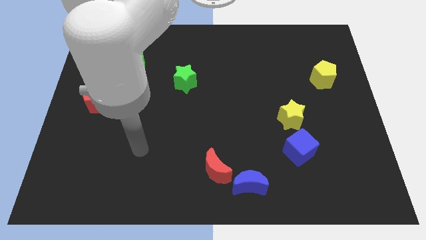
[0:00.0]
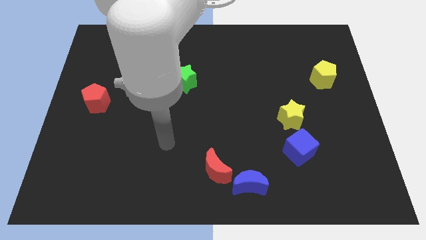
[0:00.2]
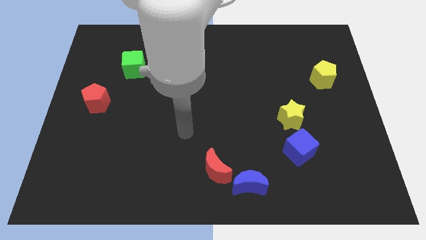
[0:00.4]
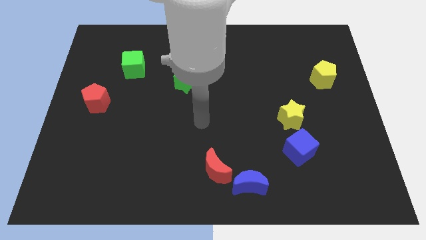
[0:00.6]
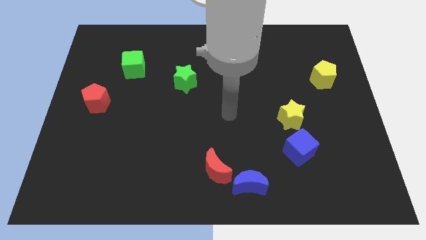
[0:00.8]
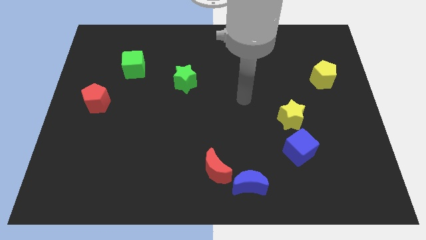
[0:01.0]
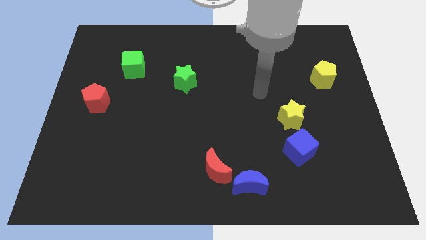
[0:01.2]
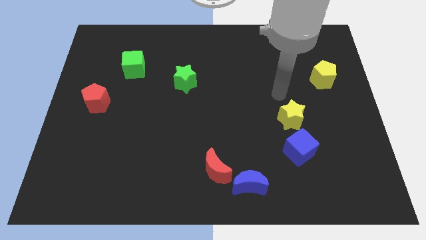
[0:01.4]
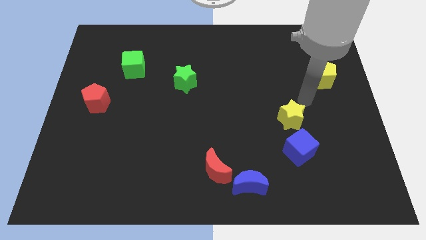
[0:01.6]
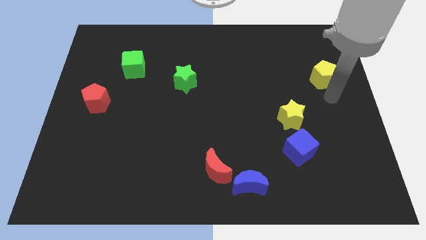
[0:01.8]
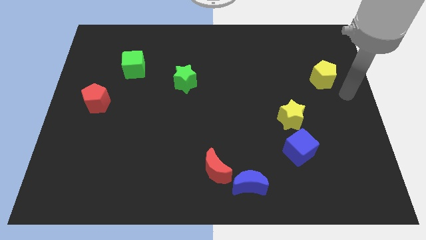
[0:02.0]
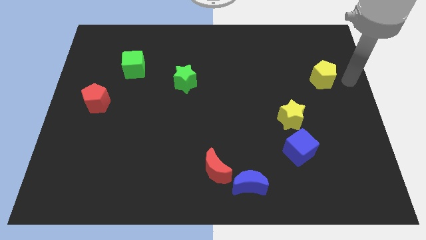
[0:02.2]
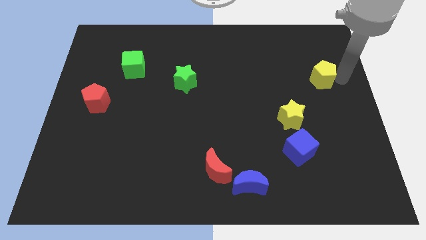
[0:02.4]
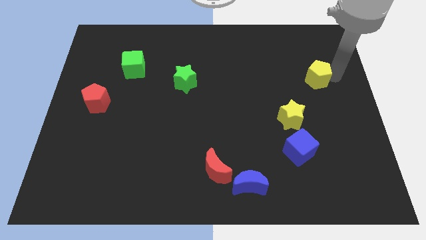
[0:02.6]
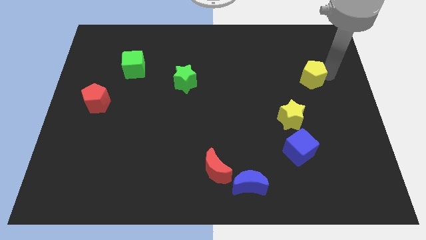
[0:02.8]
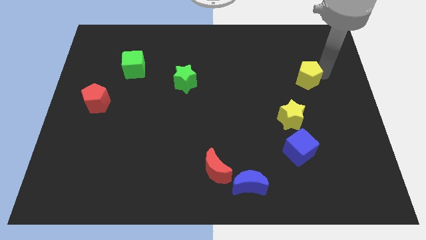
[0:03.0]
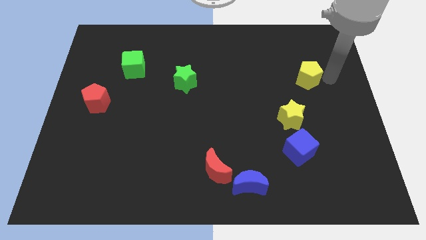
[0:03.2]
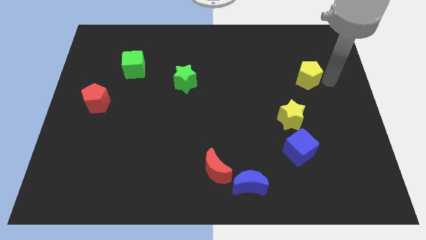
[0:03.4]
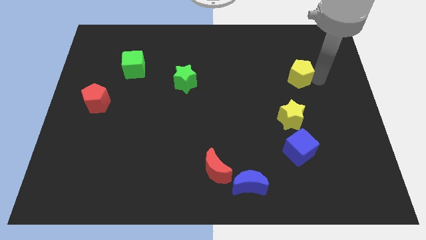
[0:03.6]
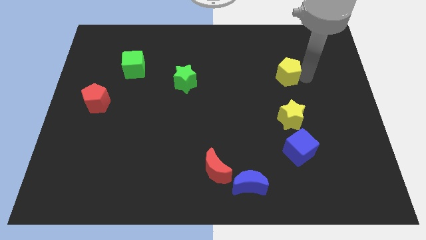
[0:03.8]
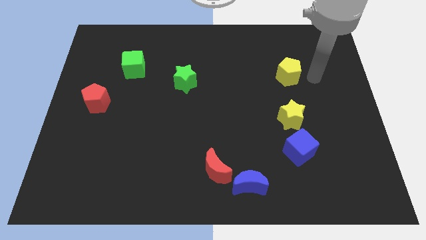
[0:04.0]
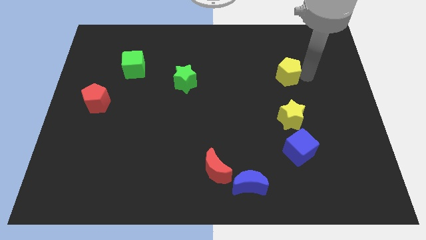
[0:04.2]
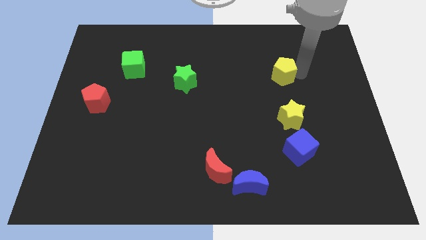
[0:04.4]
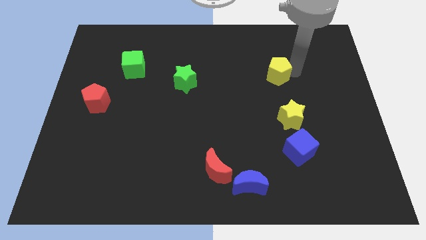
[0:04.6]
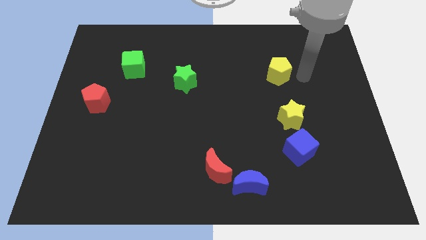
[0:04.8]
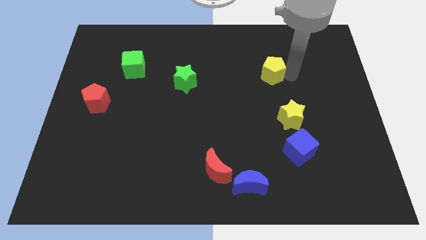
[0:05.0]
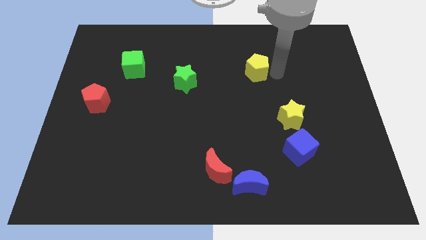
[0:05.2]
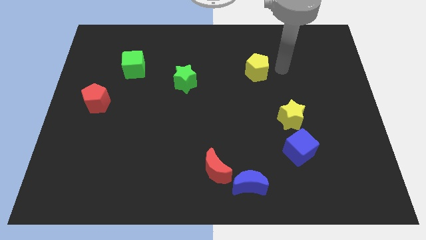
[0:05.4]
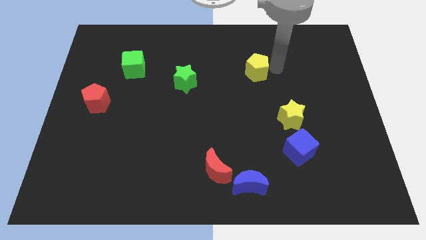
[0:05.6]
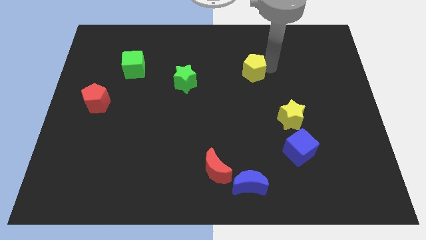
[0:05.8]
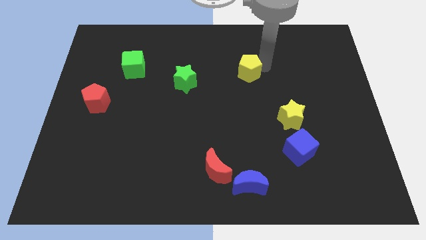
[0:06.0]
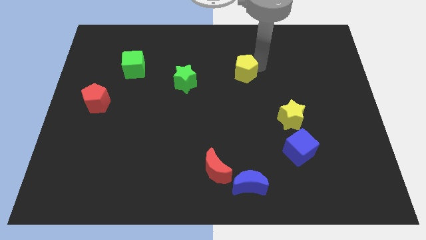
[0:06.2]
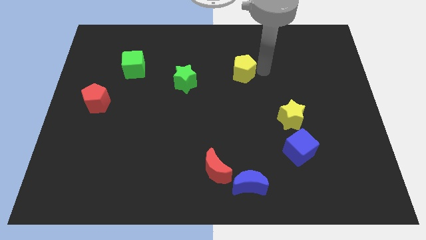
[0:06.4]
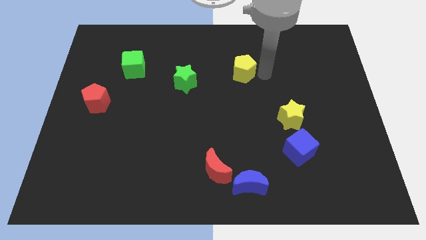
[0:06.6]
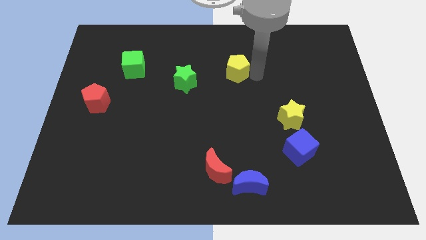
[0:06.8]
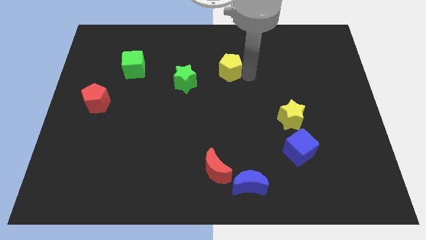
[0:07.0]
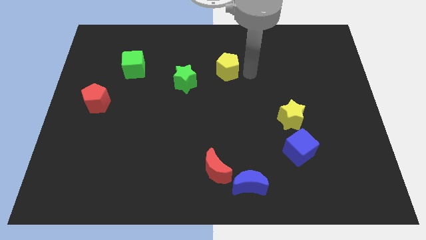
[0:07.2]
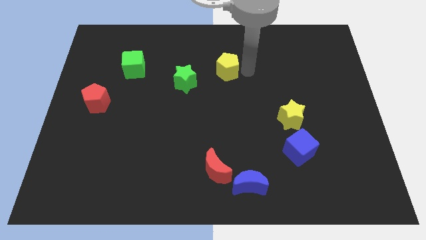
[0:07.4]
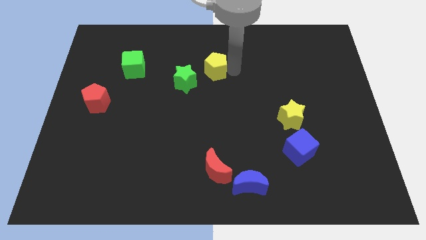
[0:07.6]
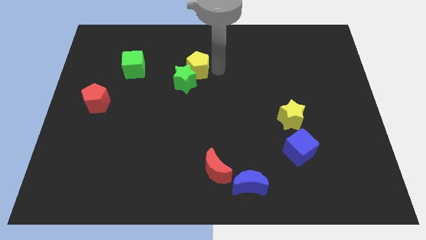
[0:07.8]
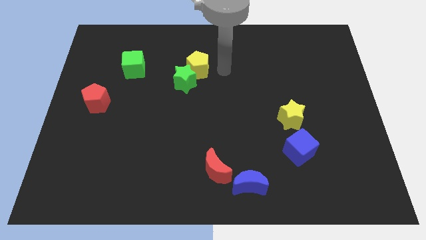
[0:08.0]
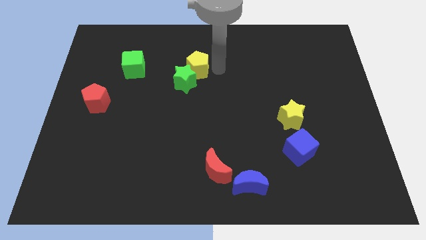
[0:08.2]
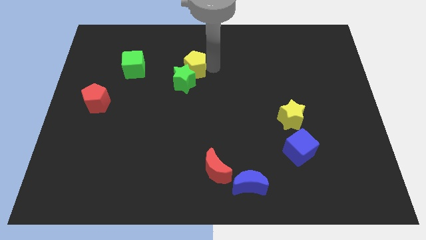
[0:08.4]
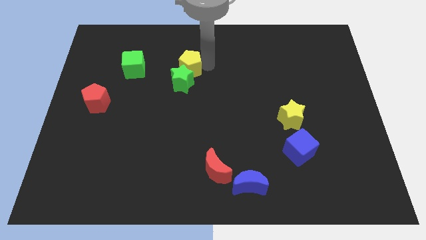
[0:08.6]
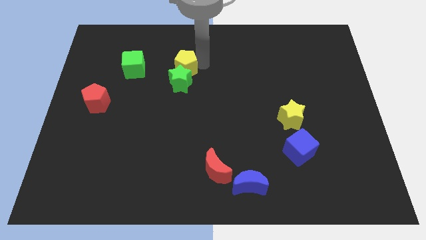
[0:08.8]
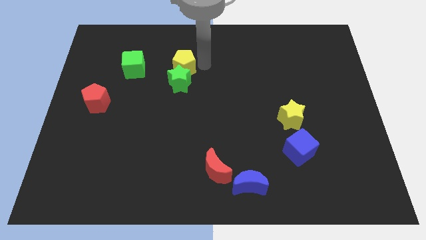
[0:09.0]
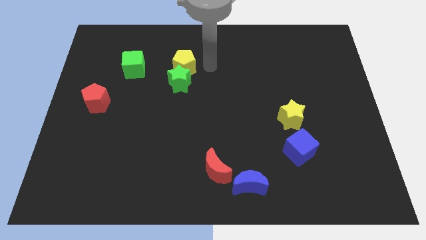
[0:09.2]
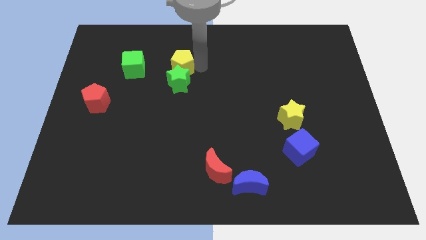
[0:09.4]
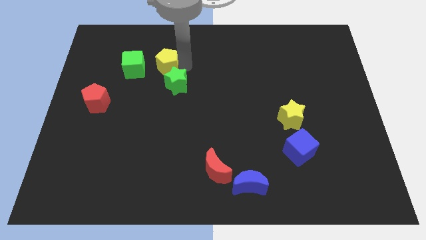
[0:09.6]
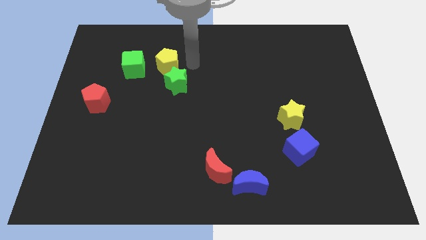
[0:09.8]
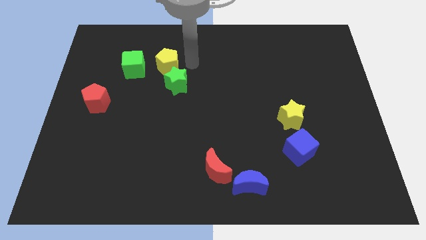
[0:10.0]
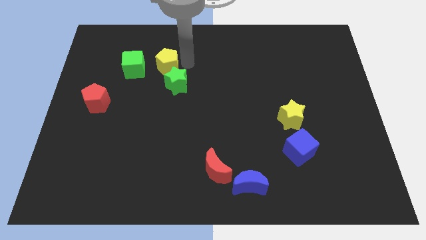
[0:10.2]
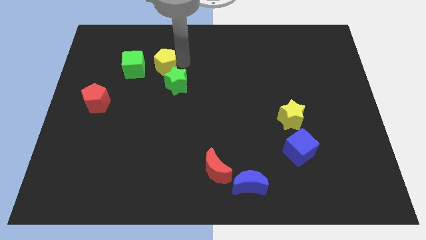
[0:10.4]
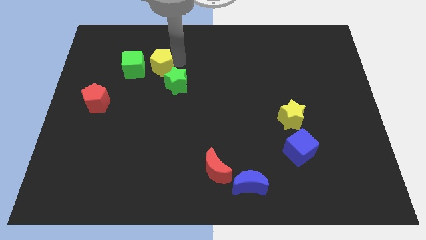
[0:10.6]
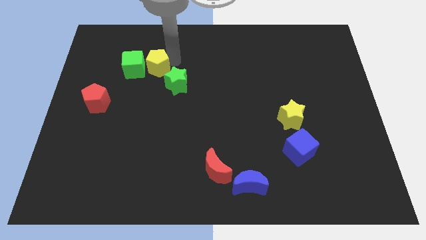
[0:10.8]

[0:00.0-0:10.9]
move the yellow pentagon next to the green cube

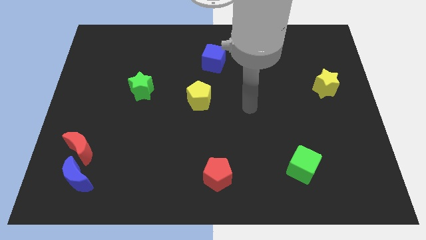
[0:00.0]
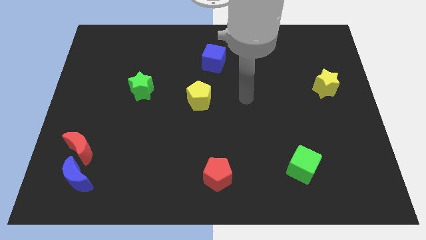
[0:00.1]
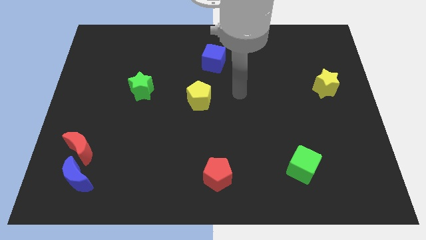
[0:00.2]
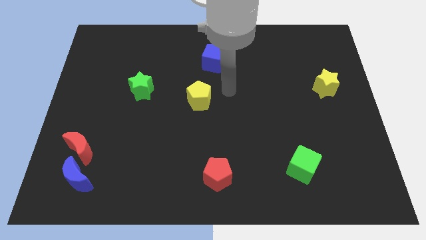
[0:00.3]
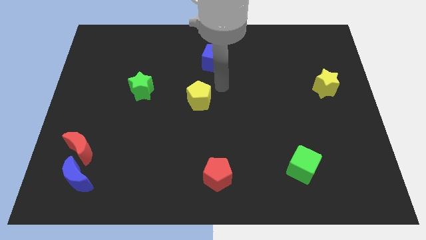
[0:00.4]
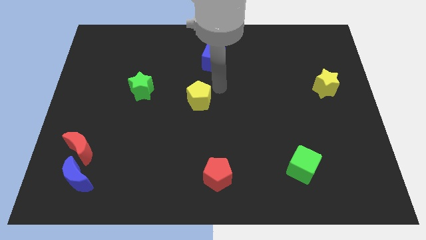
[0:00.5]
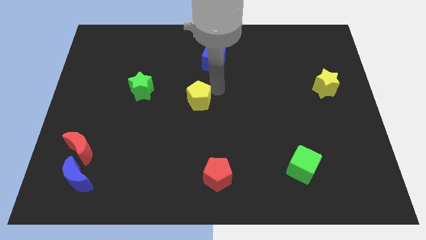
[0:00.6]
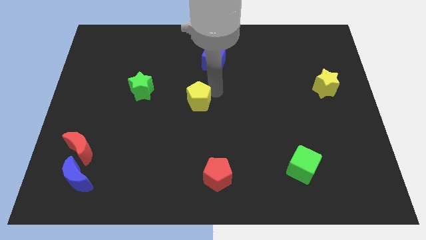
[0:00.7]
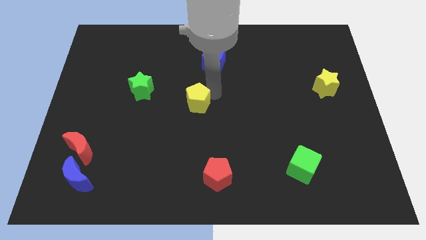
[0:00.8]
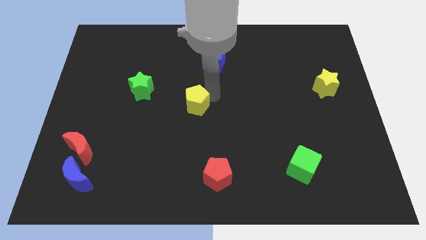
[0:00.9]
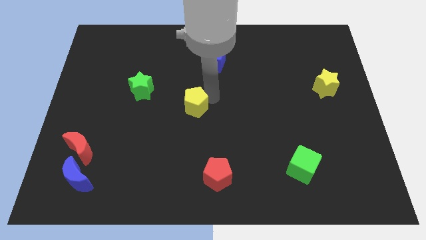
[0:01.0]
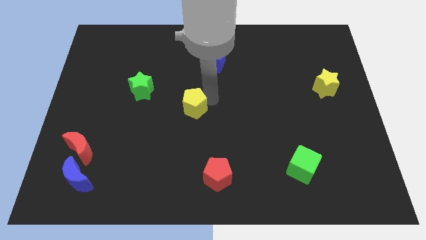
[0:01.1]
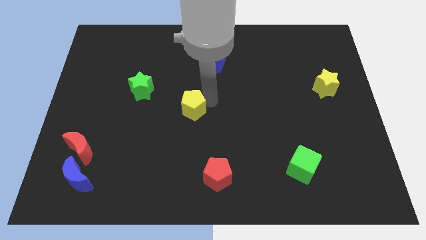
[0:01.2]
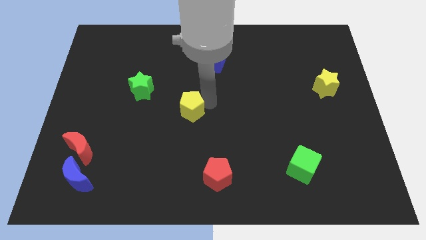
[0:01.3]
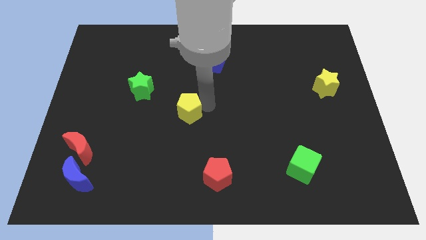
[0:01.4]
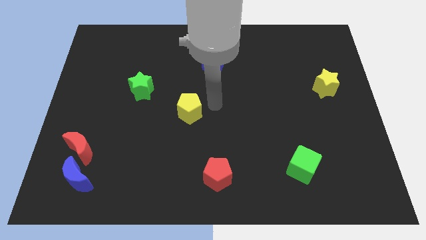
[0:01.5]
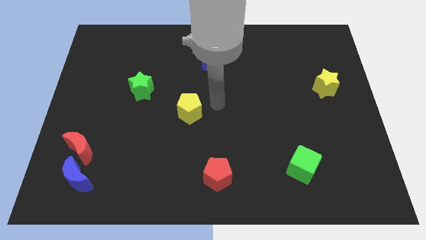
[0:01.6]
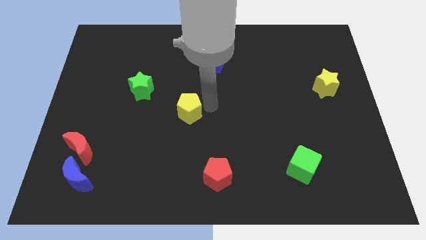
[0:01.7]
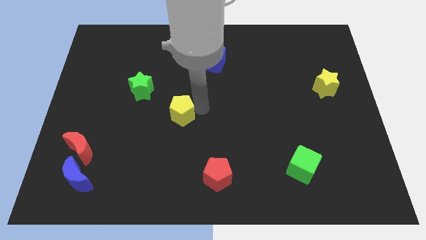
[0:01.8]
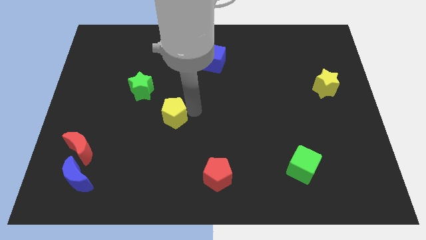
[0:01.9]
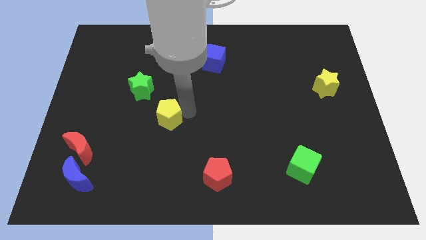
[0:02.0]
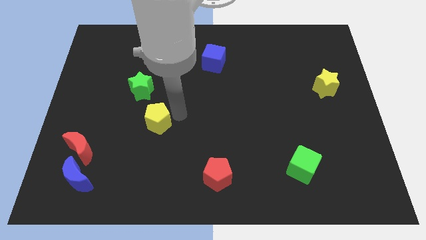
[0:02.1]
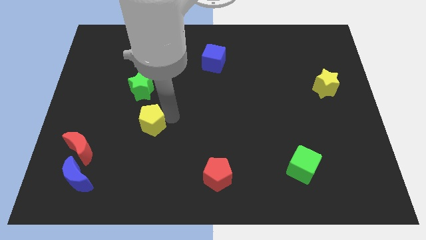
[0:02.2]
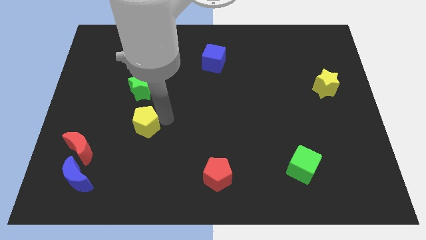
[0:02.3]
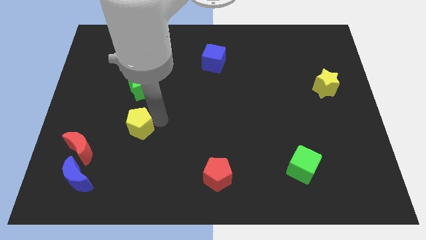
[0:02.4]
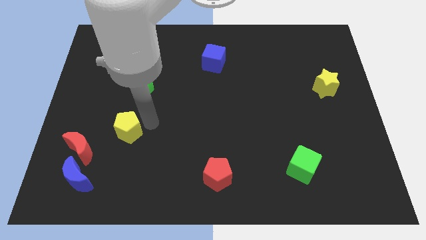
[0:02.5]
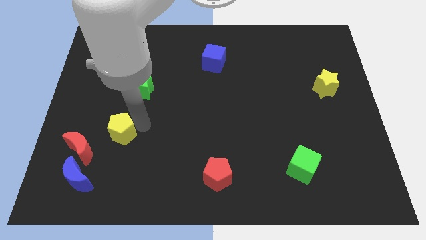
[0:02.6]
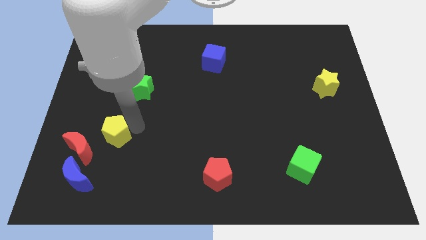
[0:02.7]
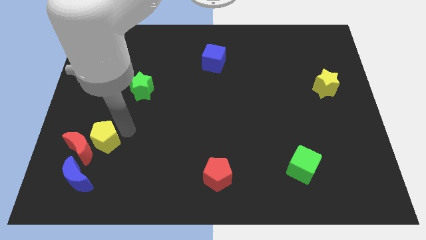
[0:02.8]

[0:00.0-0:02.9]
move the yellow pentagon next to the red moon
